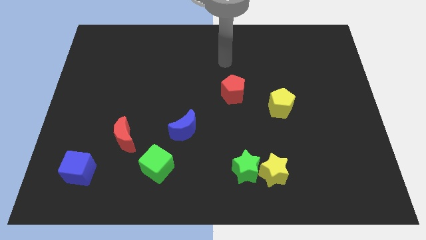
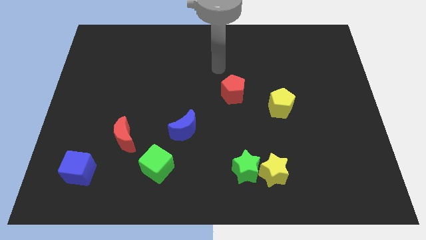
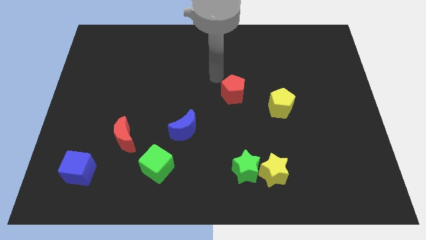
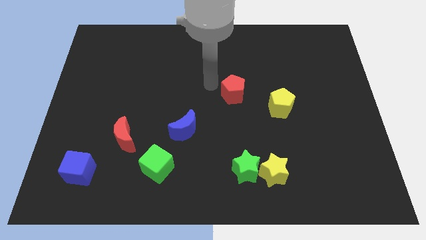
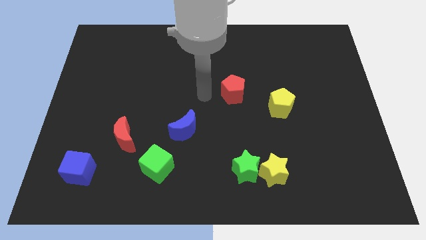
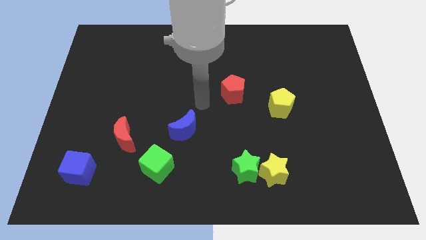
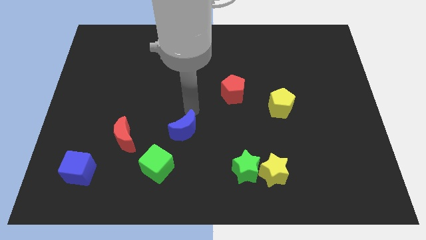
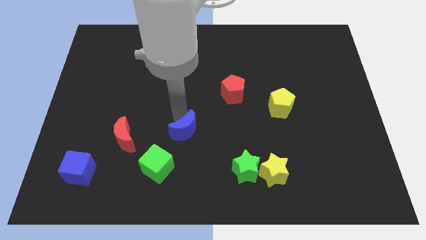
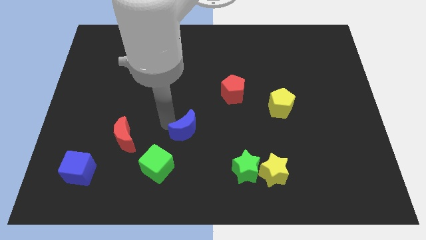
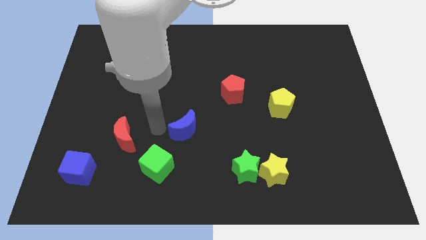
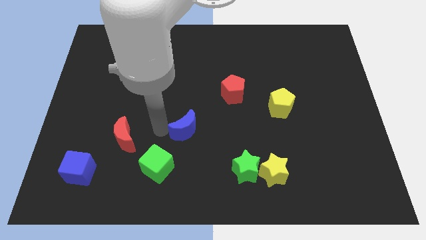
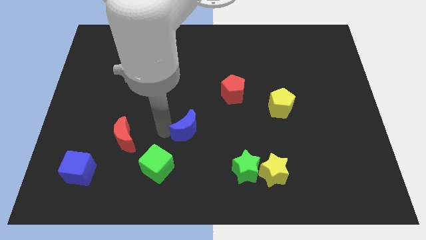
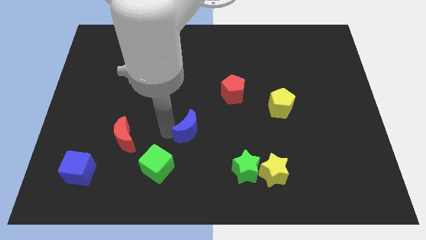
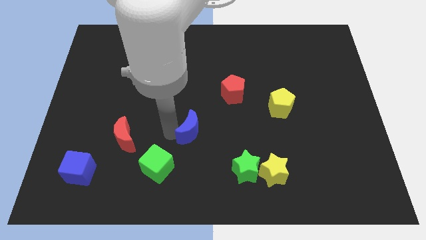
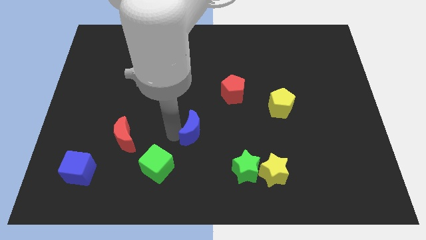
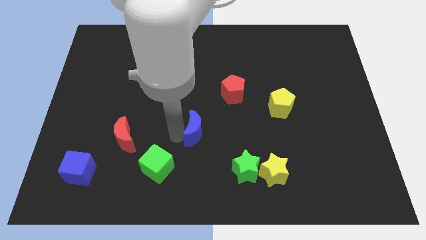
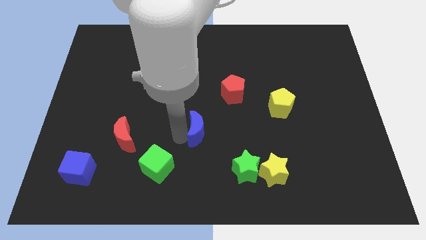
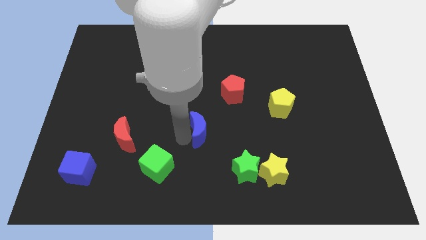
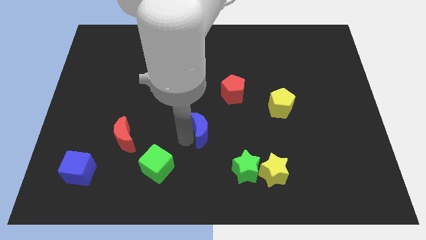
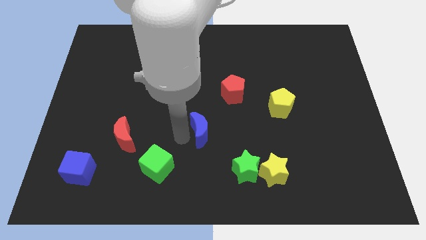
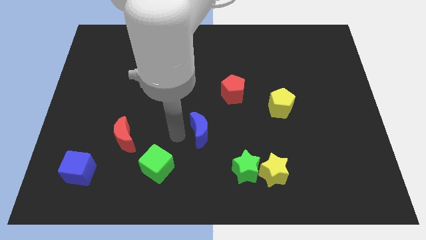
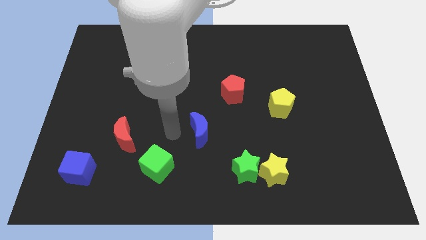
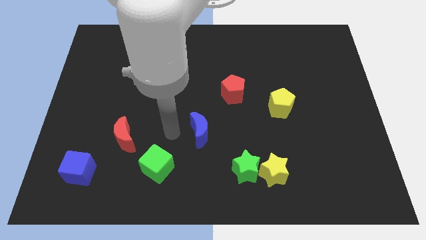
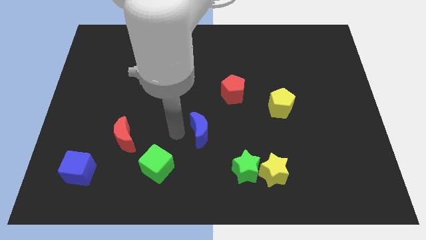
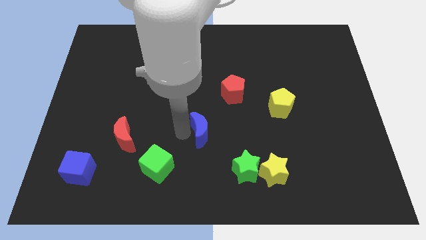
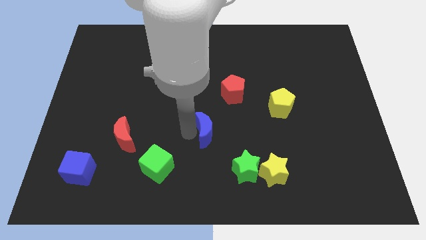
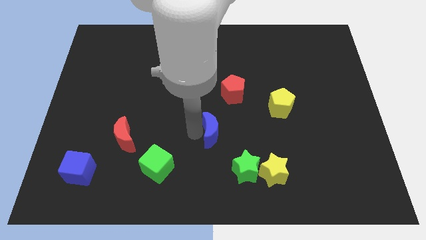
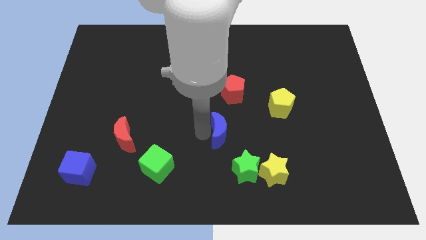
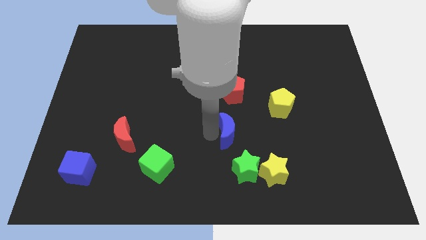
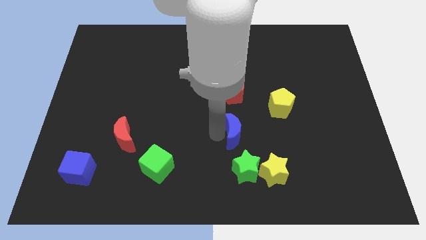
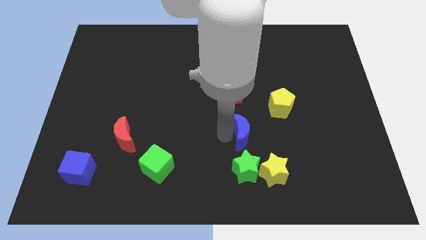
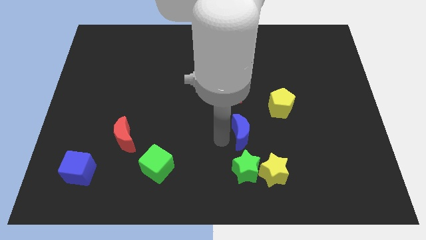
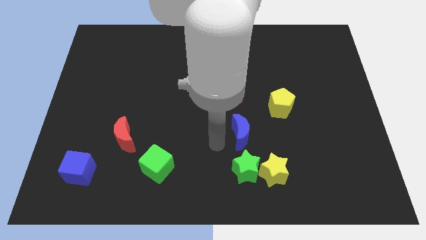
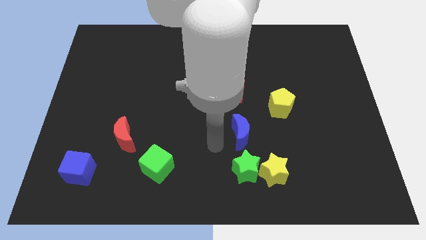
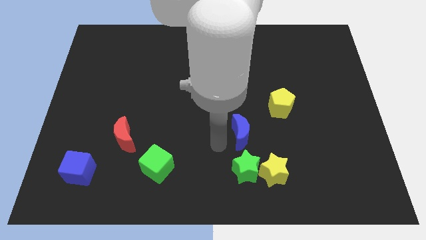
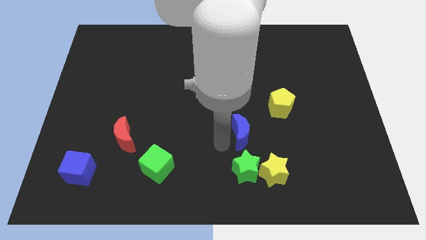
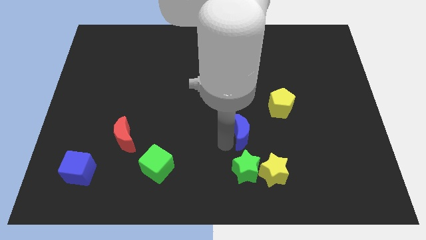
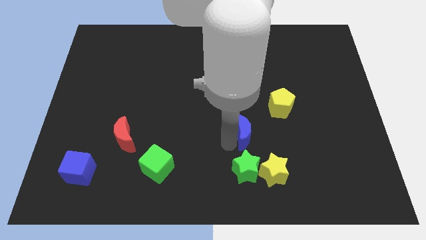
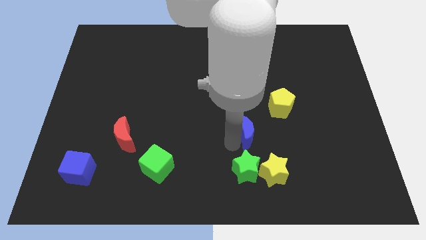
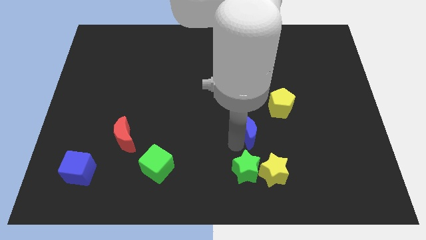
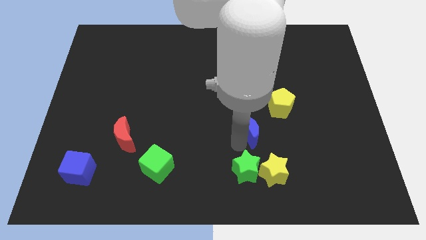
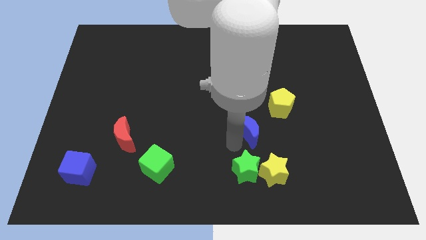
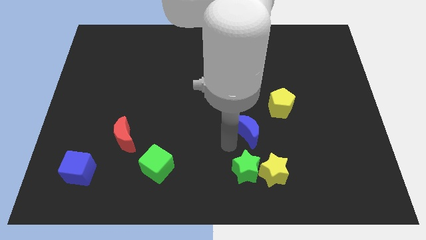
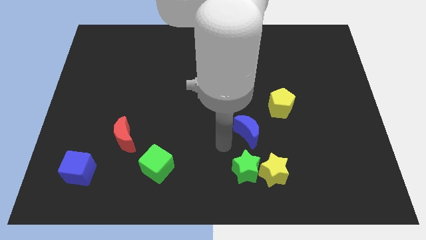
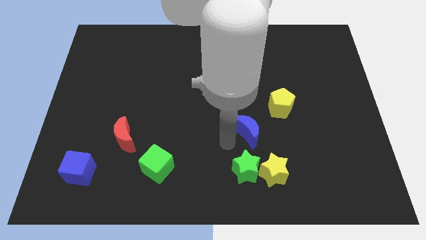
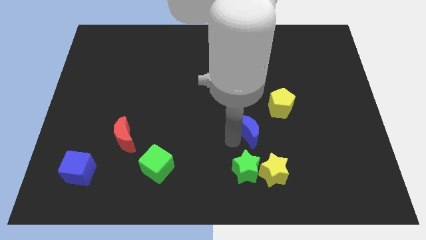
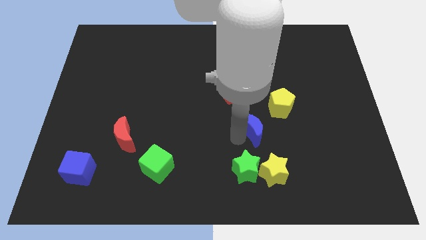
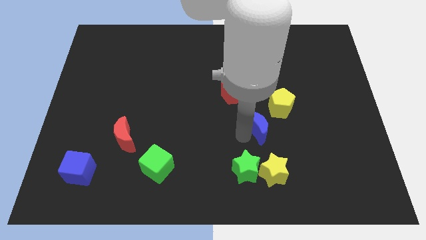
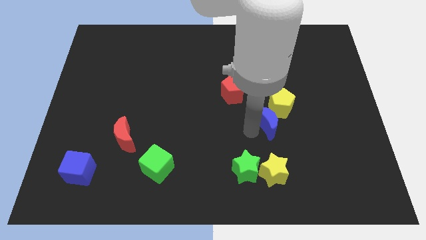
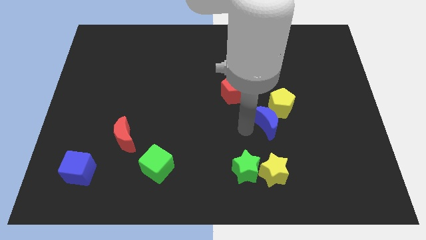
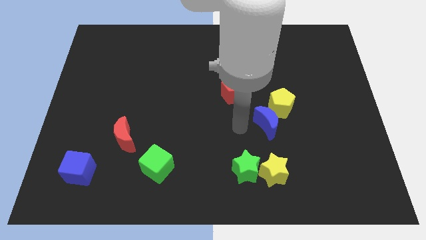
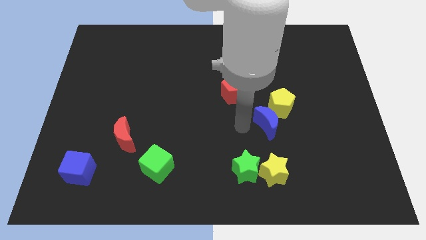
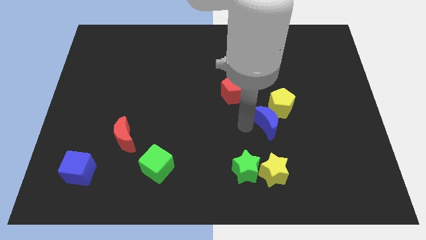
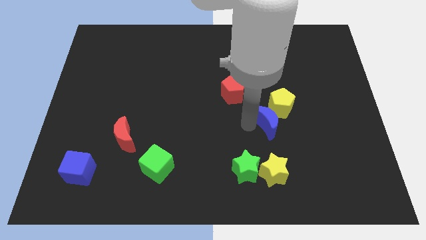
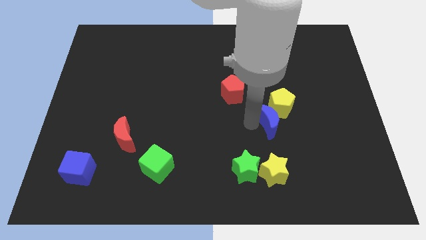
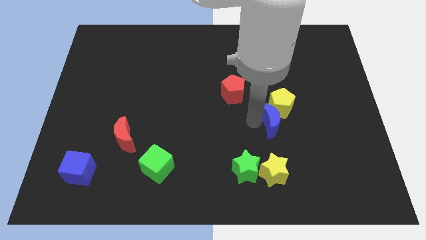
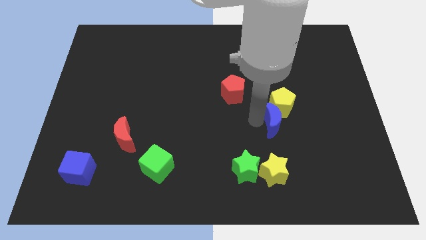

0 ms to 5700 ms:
push the blue moon to the right

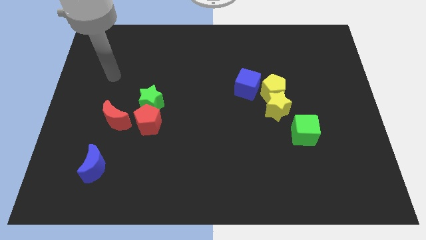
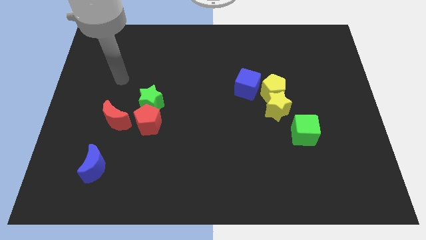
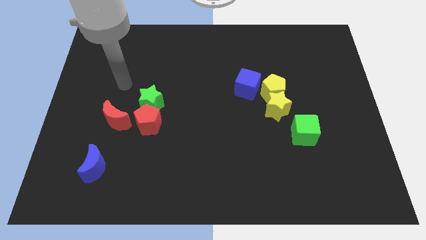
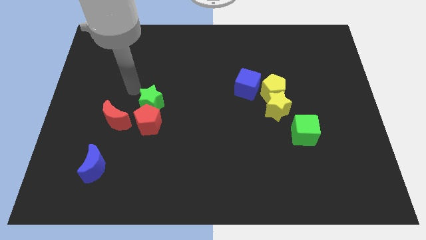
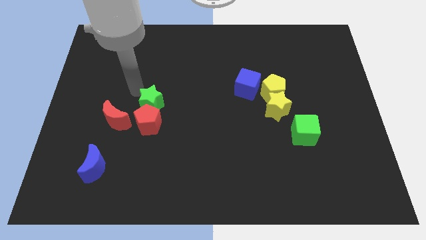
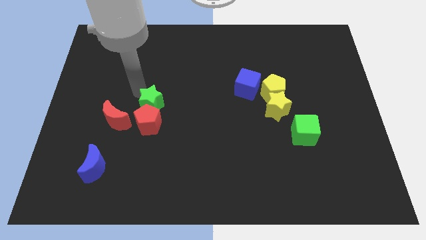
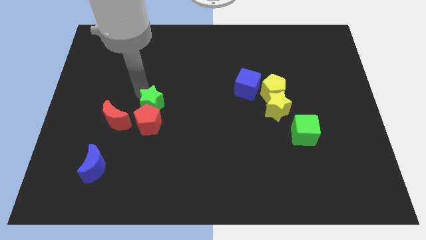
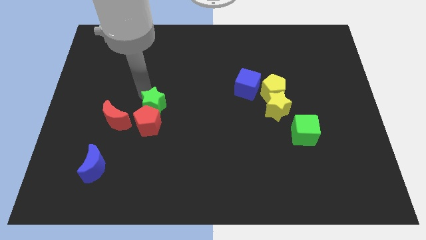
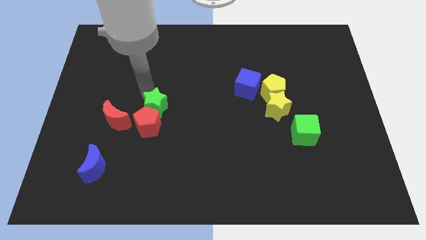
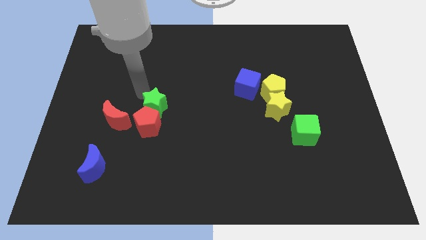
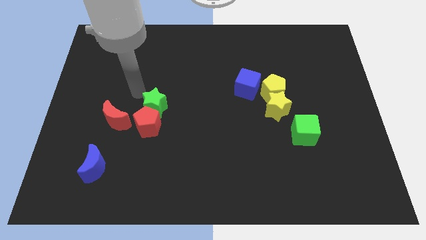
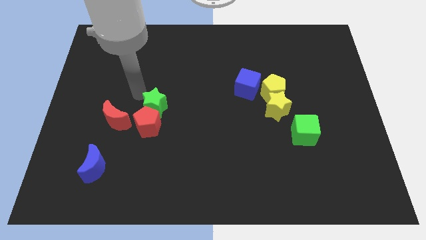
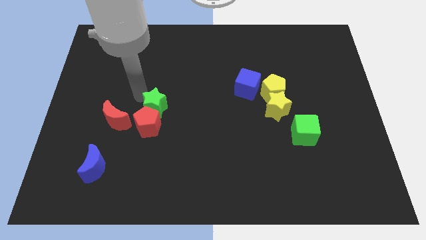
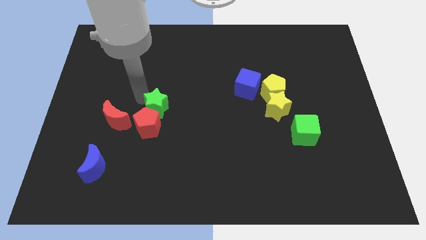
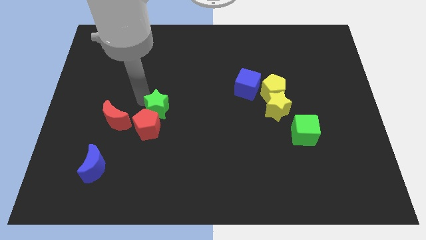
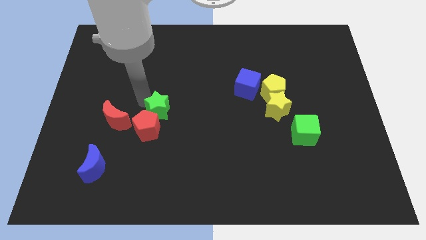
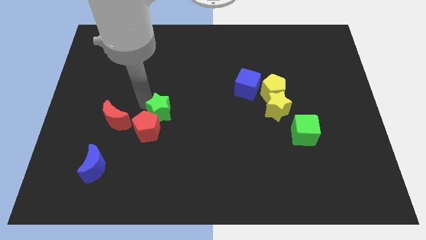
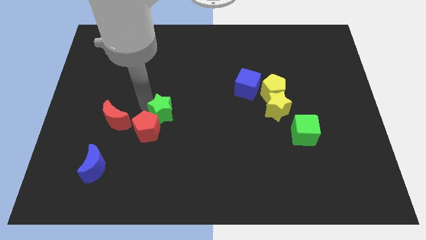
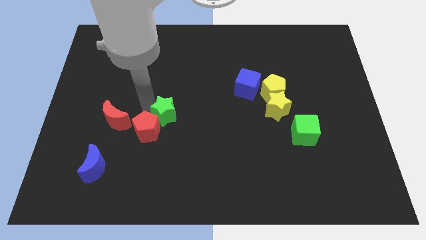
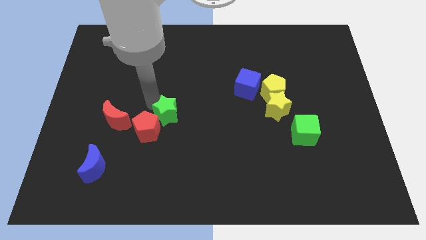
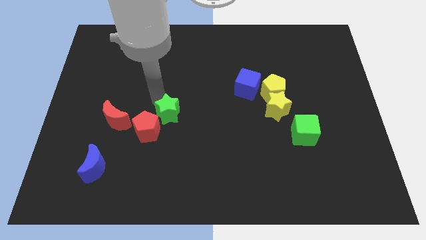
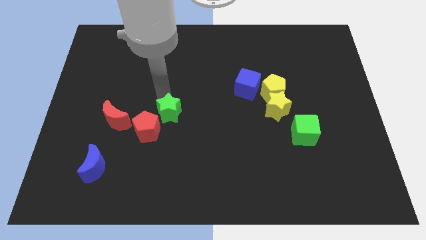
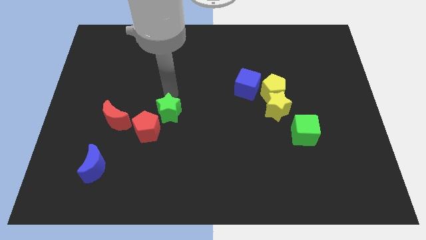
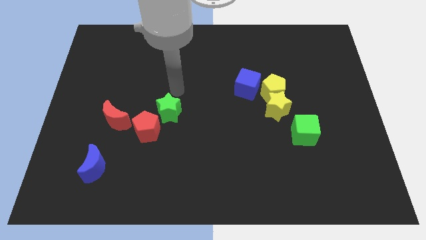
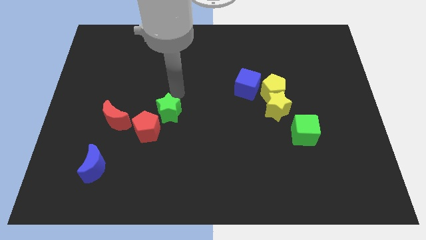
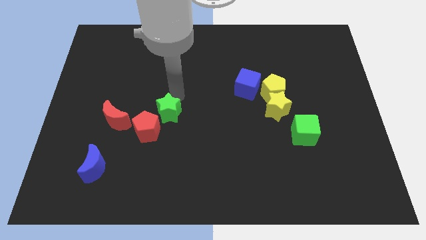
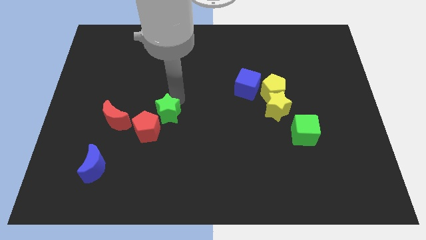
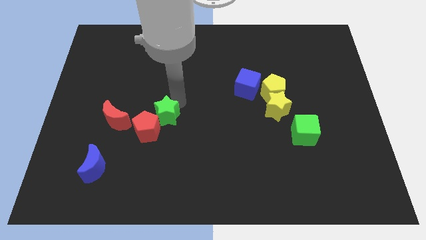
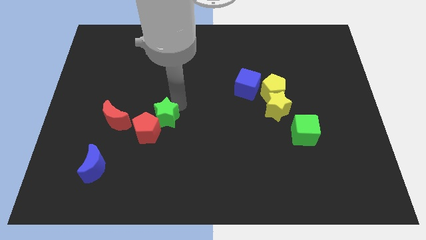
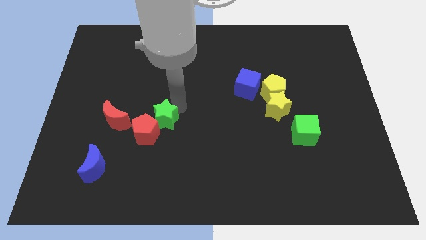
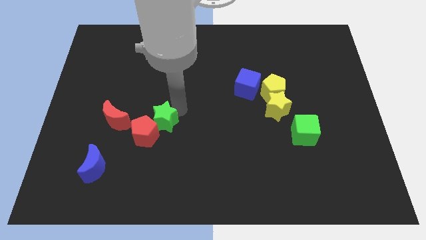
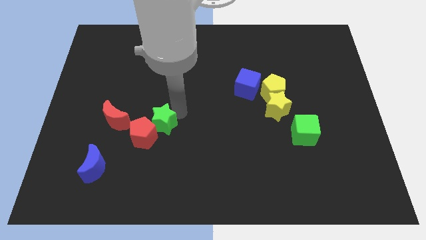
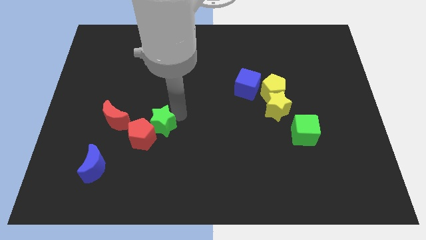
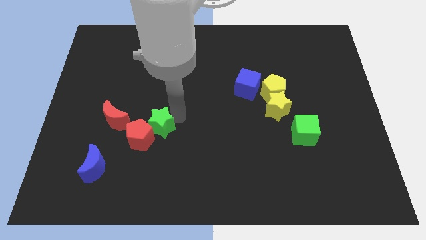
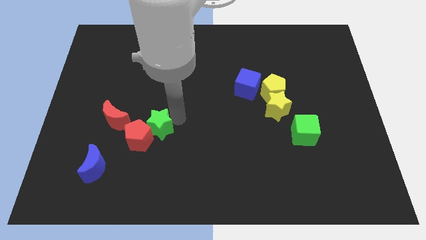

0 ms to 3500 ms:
slightly slide the green star downwards
